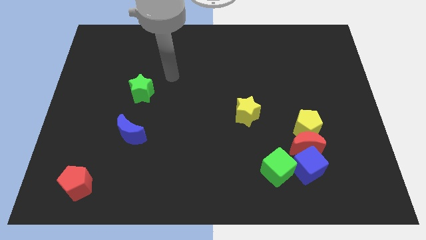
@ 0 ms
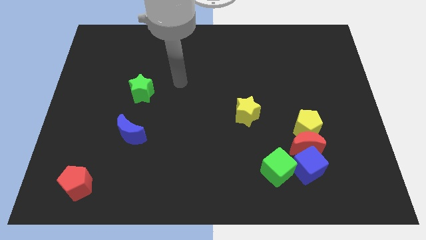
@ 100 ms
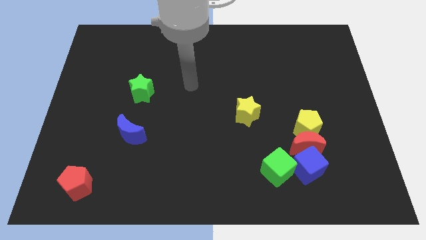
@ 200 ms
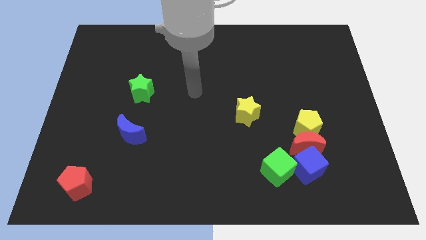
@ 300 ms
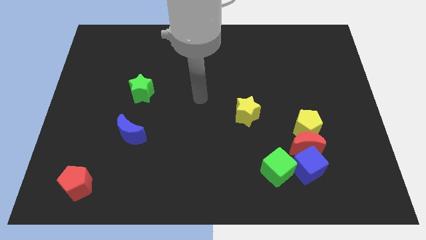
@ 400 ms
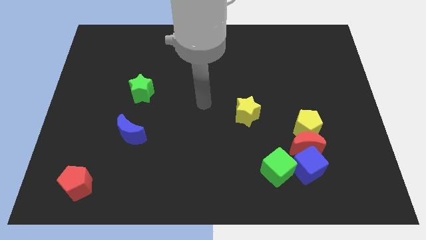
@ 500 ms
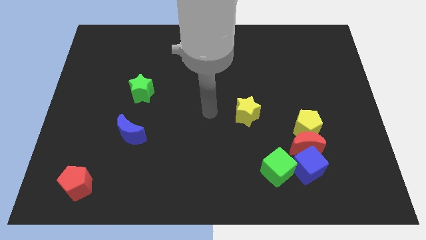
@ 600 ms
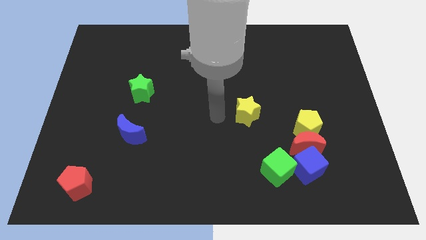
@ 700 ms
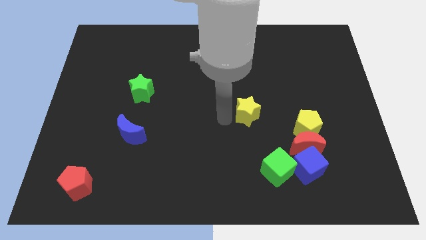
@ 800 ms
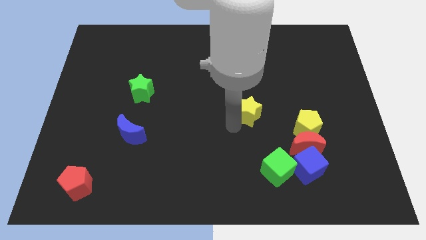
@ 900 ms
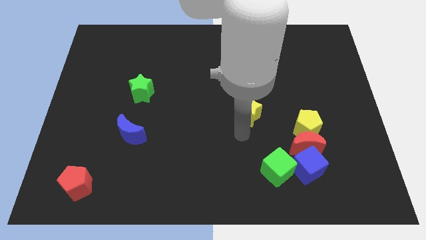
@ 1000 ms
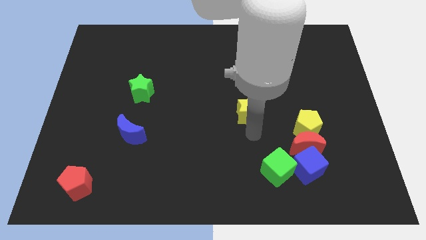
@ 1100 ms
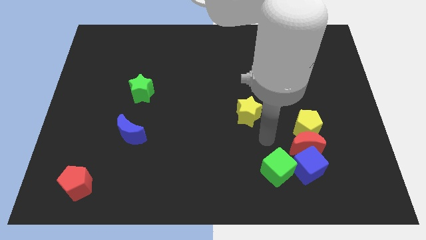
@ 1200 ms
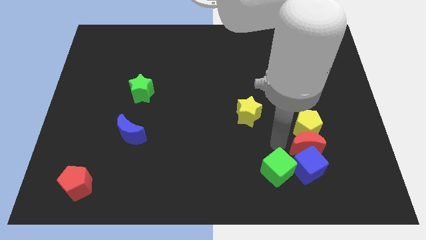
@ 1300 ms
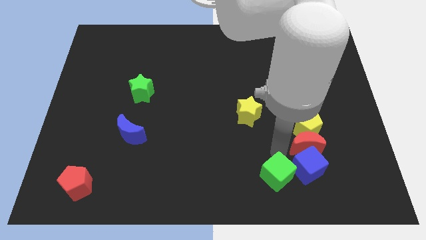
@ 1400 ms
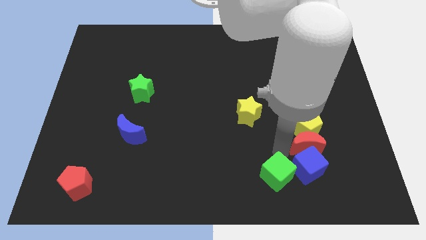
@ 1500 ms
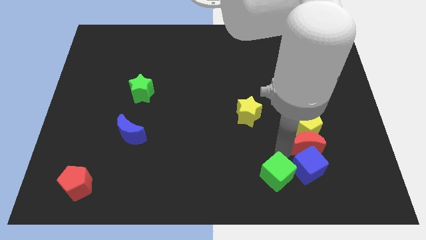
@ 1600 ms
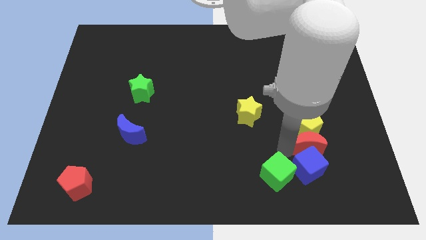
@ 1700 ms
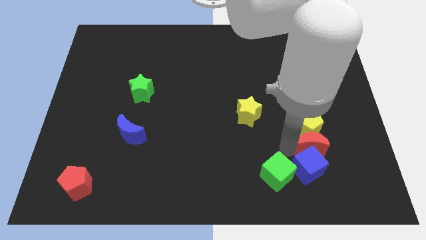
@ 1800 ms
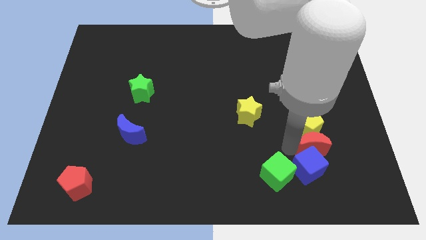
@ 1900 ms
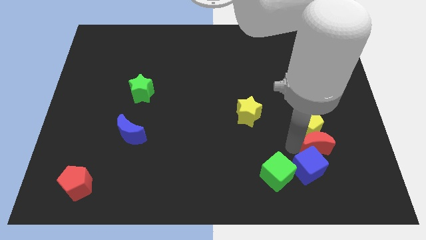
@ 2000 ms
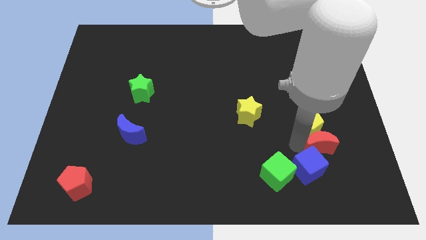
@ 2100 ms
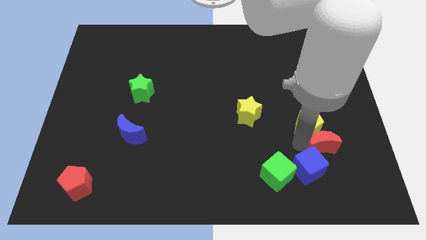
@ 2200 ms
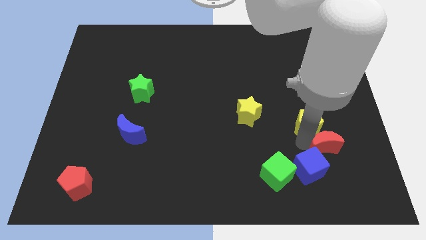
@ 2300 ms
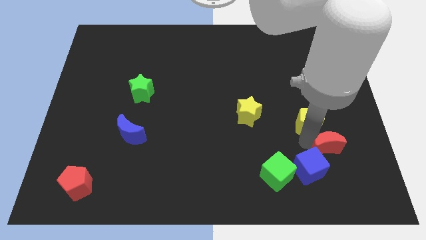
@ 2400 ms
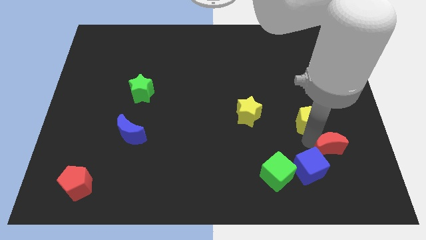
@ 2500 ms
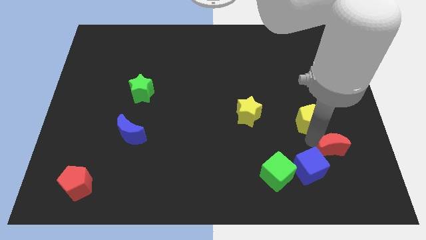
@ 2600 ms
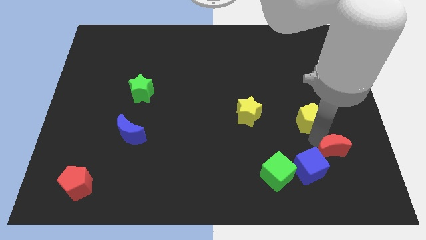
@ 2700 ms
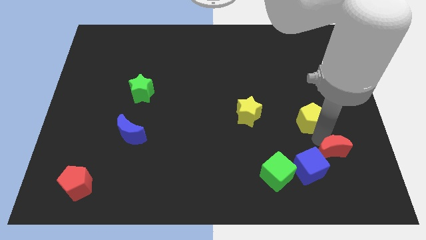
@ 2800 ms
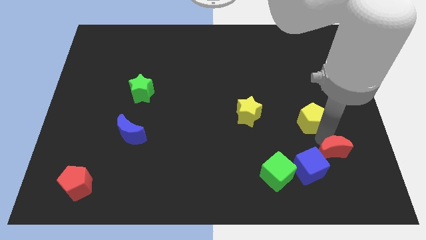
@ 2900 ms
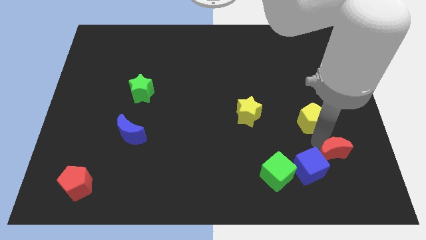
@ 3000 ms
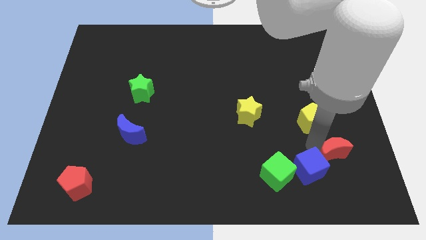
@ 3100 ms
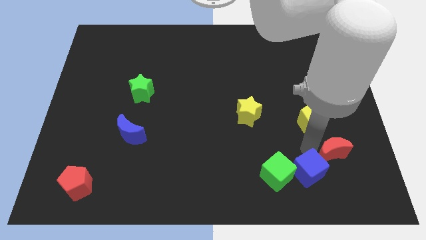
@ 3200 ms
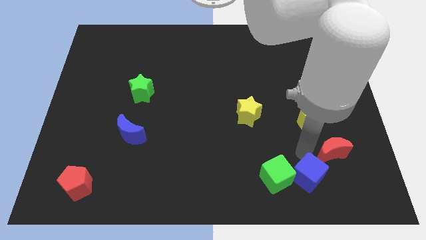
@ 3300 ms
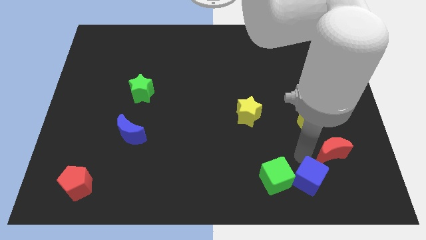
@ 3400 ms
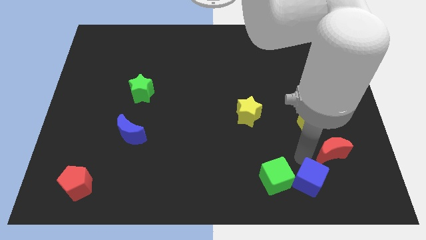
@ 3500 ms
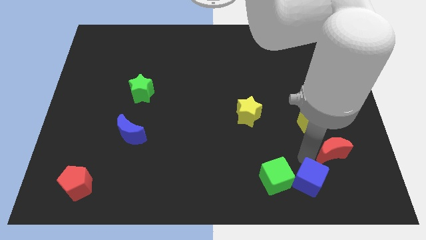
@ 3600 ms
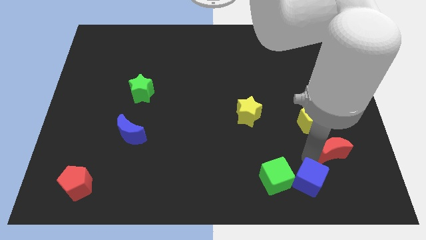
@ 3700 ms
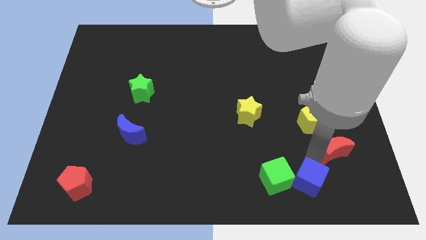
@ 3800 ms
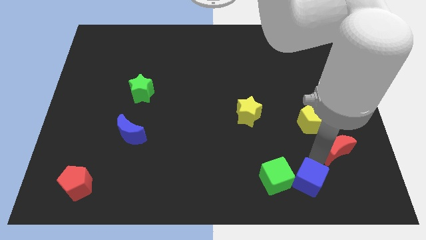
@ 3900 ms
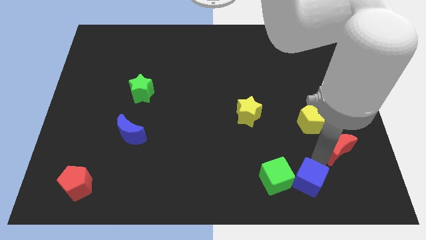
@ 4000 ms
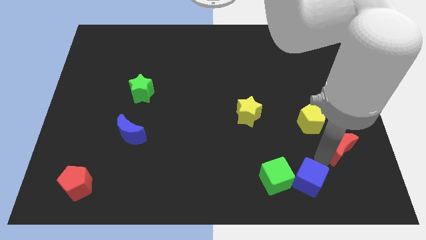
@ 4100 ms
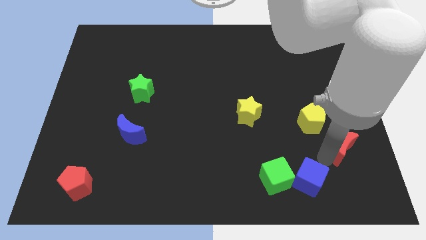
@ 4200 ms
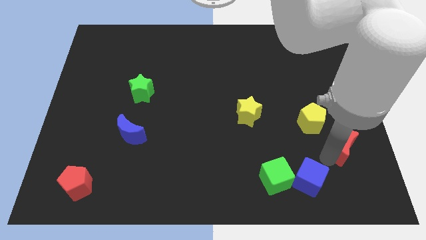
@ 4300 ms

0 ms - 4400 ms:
pull the red moon apart from the group of blocks

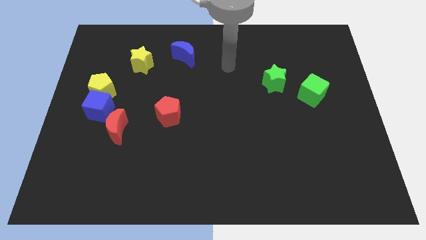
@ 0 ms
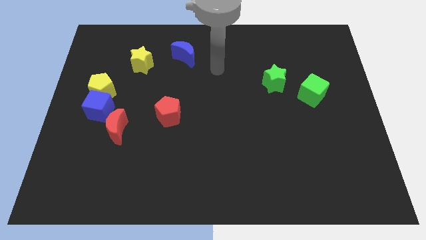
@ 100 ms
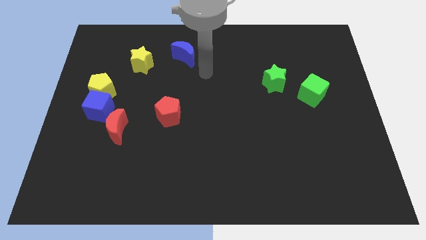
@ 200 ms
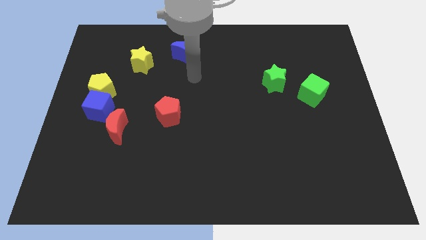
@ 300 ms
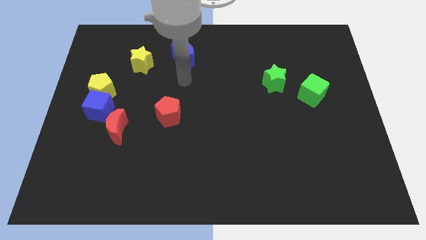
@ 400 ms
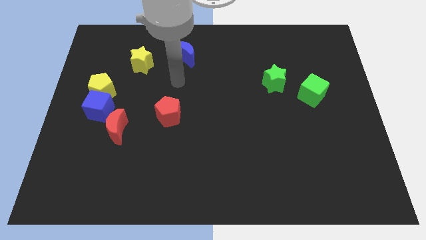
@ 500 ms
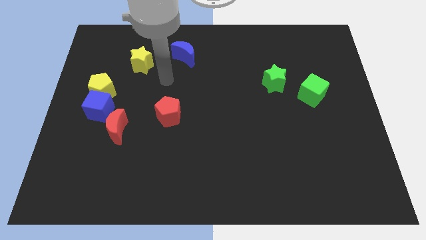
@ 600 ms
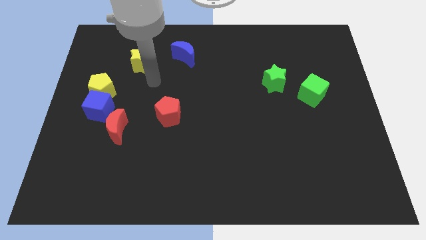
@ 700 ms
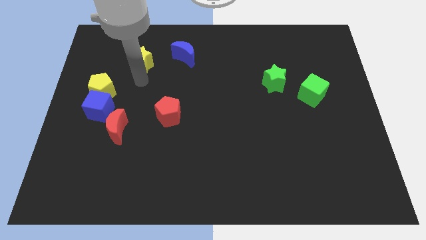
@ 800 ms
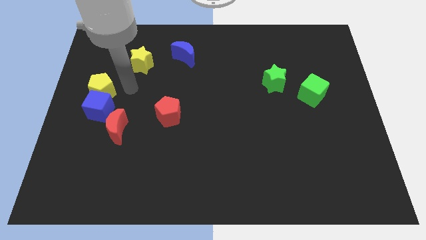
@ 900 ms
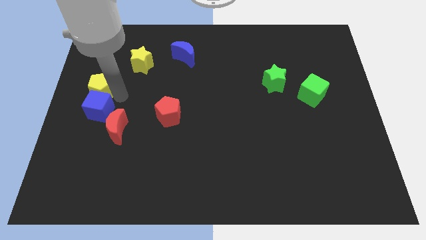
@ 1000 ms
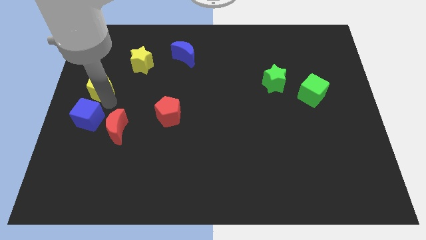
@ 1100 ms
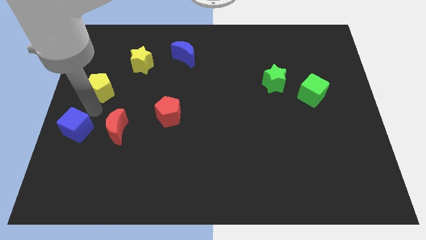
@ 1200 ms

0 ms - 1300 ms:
separate the yellow pentagon from the blue cube

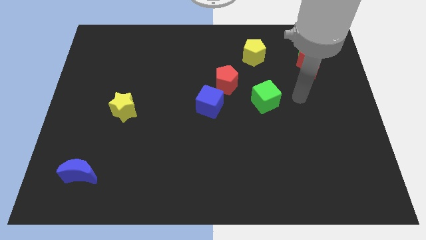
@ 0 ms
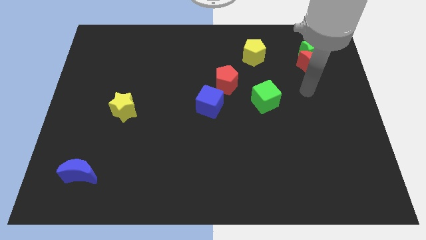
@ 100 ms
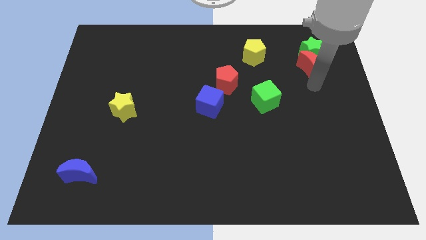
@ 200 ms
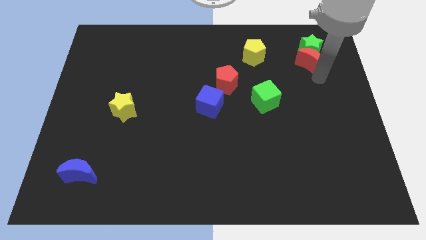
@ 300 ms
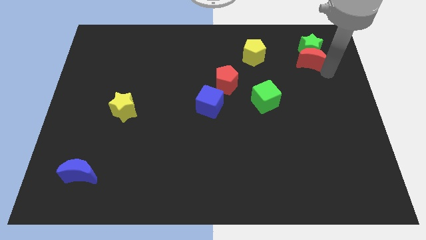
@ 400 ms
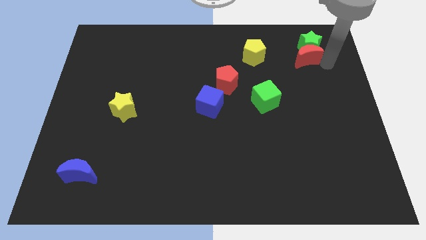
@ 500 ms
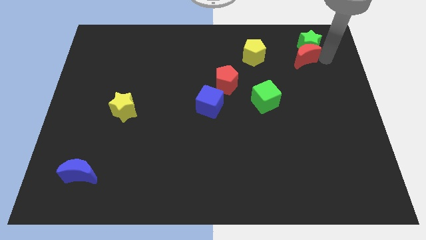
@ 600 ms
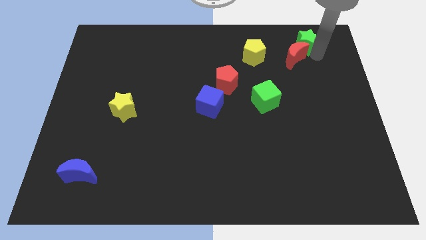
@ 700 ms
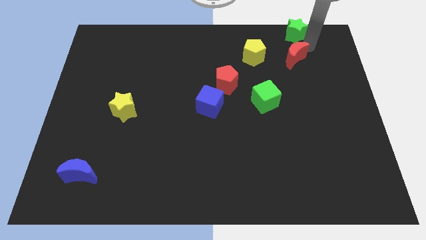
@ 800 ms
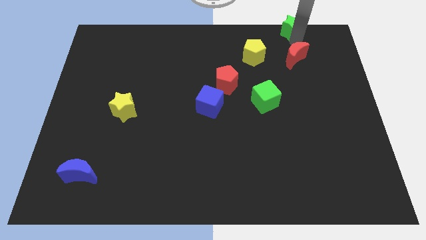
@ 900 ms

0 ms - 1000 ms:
move the red moon away from the green star

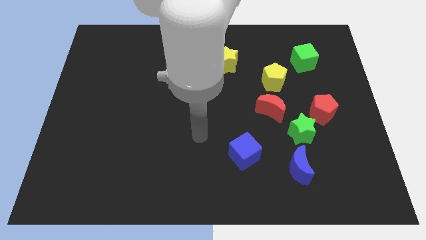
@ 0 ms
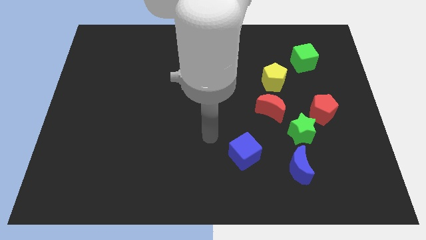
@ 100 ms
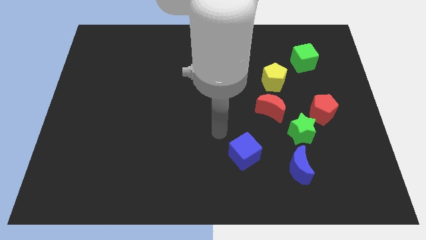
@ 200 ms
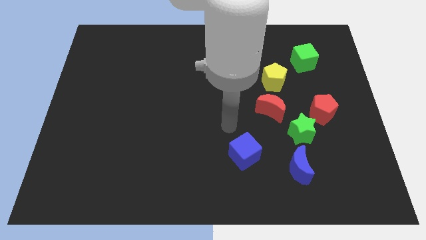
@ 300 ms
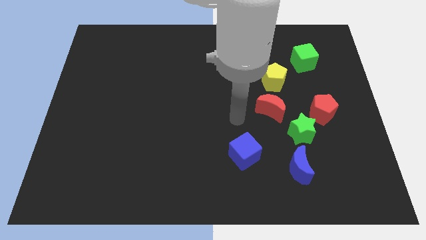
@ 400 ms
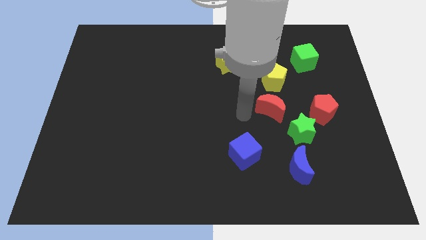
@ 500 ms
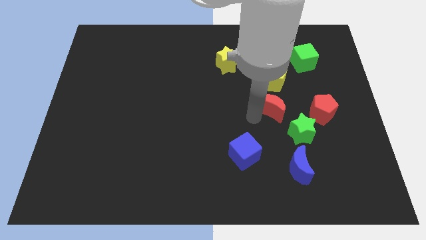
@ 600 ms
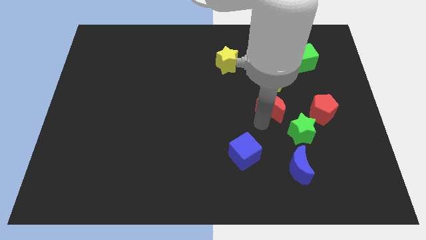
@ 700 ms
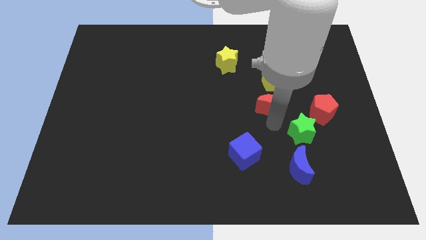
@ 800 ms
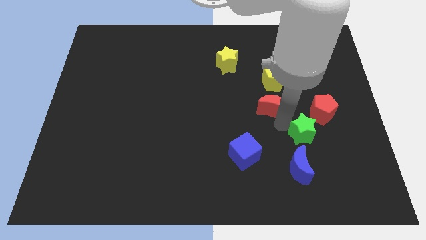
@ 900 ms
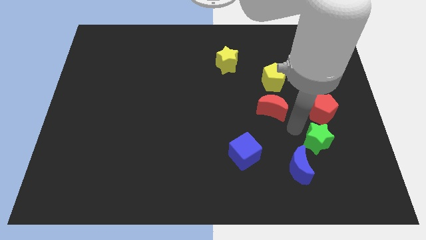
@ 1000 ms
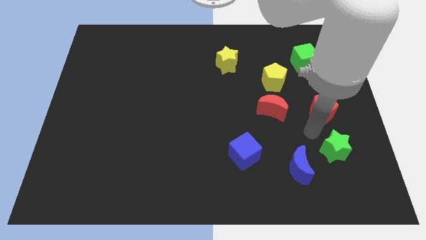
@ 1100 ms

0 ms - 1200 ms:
move the red pentagon away from the green star

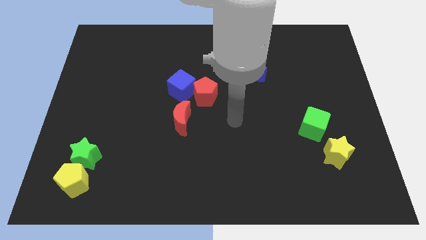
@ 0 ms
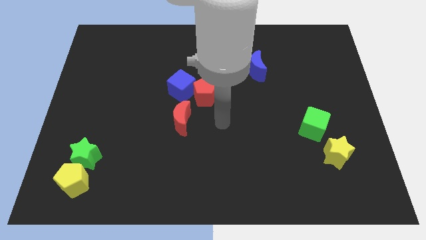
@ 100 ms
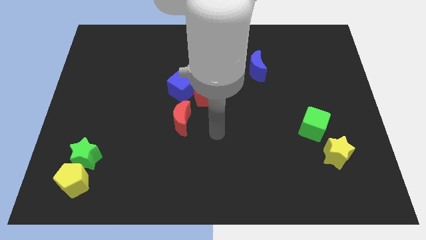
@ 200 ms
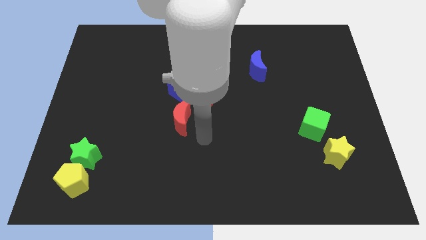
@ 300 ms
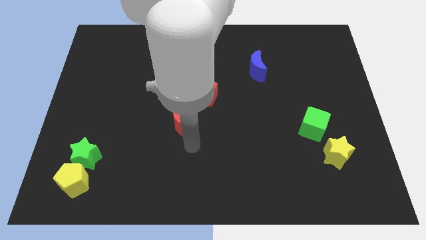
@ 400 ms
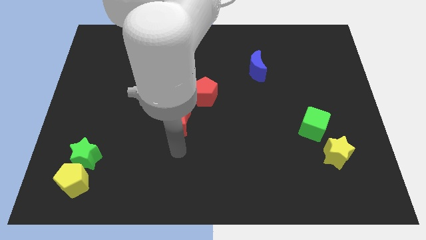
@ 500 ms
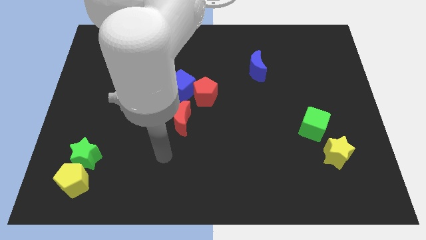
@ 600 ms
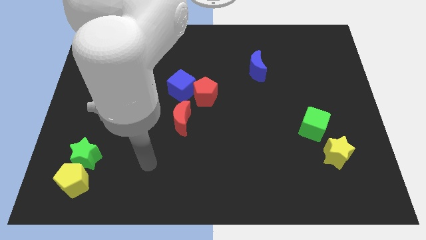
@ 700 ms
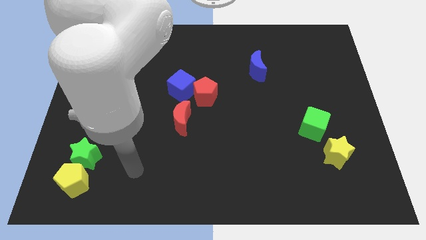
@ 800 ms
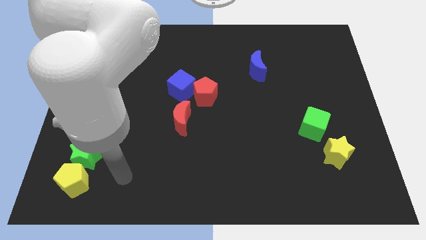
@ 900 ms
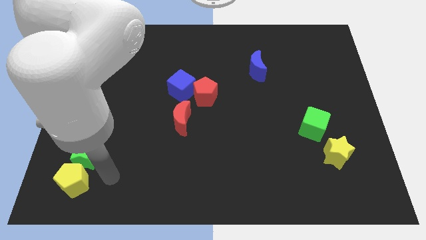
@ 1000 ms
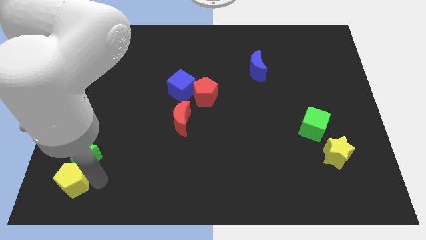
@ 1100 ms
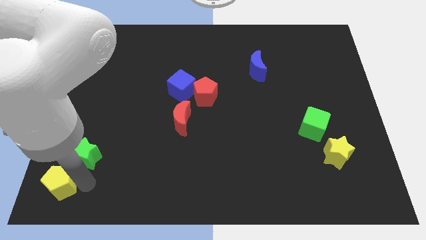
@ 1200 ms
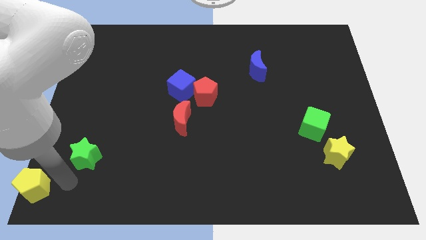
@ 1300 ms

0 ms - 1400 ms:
pull the green star apart from the yellow pentagon
